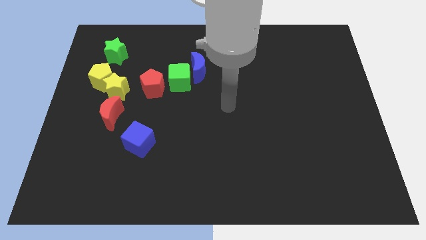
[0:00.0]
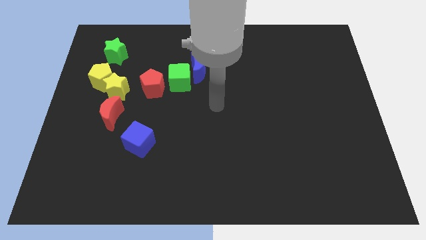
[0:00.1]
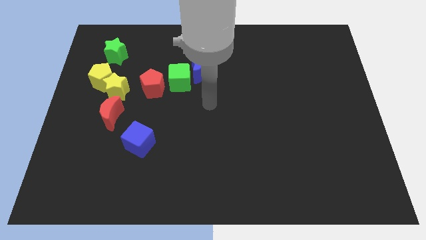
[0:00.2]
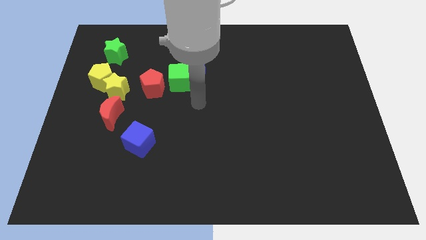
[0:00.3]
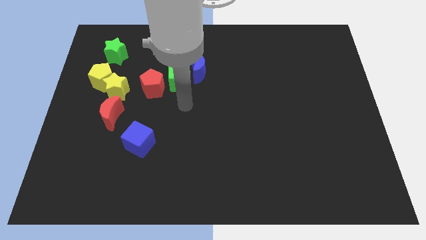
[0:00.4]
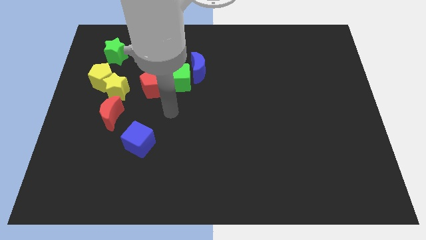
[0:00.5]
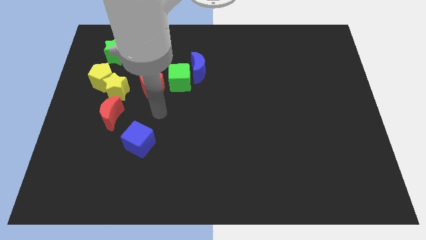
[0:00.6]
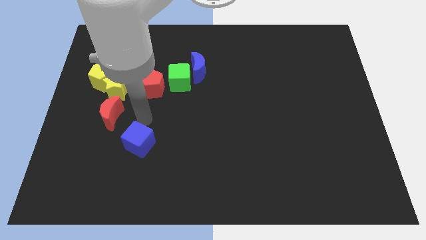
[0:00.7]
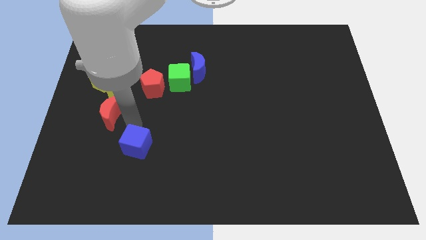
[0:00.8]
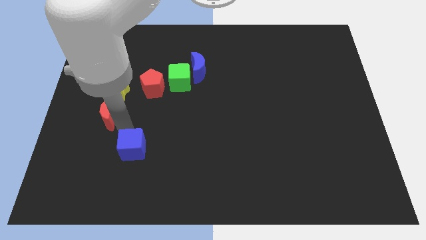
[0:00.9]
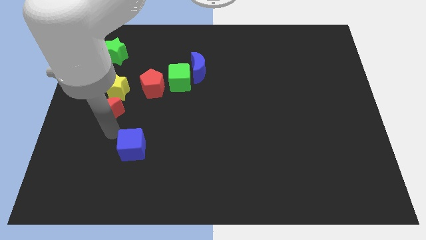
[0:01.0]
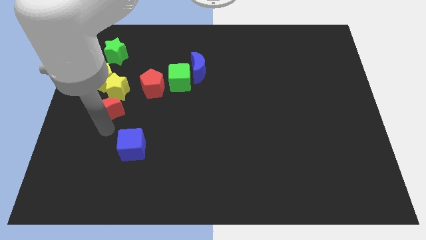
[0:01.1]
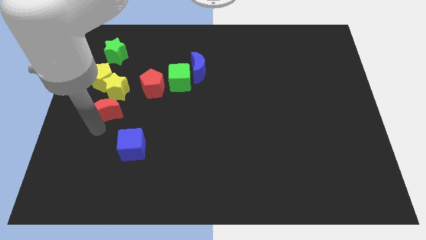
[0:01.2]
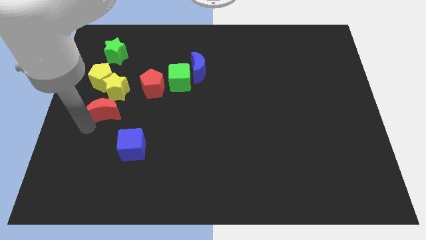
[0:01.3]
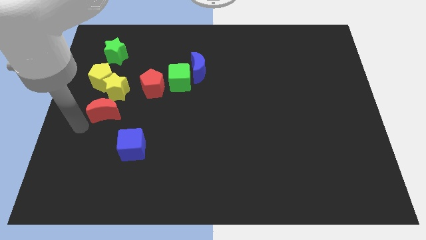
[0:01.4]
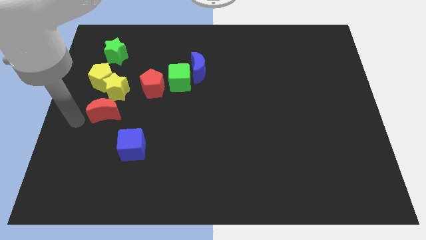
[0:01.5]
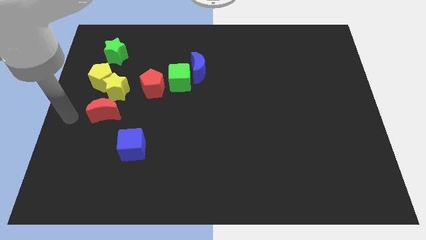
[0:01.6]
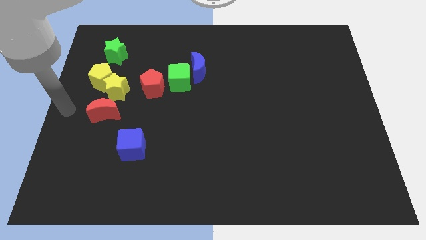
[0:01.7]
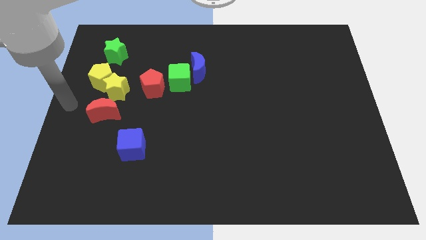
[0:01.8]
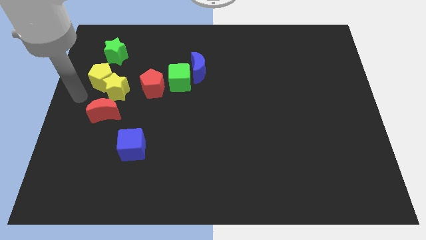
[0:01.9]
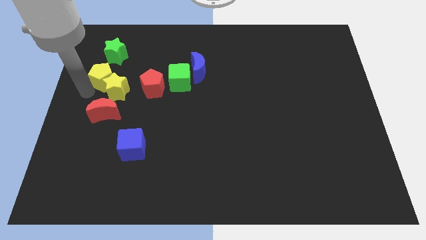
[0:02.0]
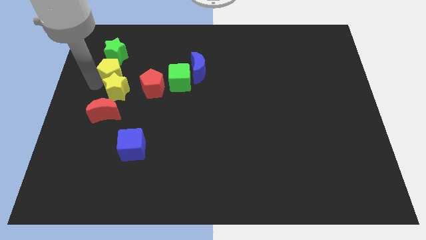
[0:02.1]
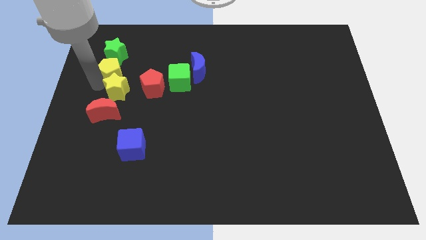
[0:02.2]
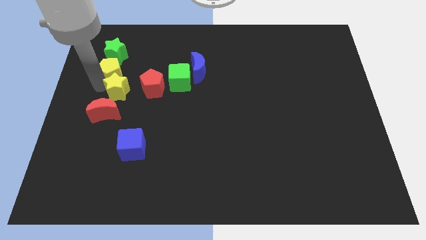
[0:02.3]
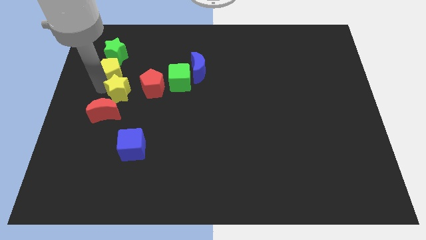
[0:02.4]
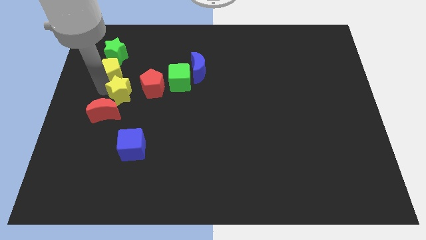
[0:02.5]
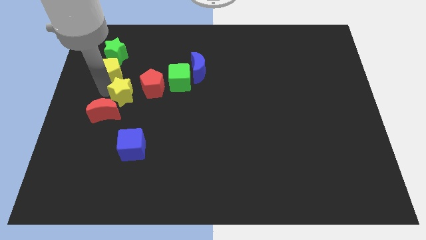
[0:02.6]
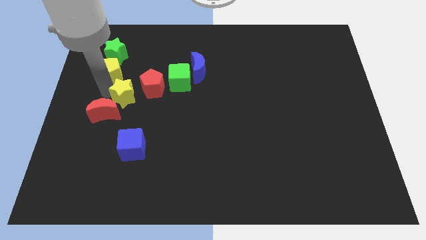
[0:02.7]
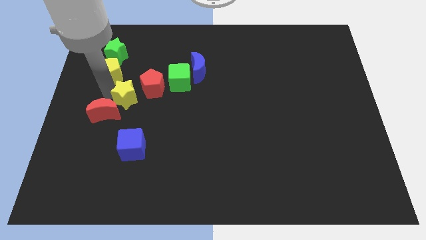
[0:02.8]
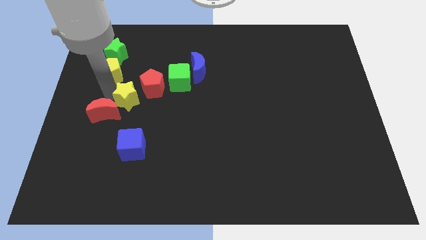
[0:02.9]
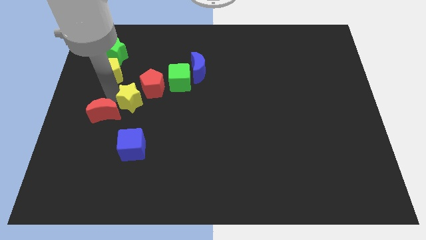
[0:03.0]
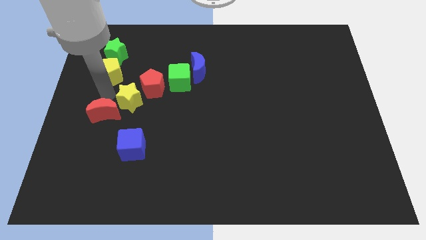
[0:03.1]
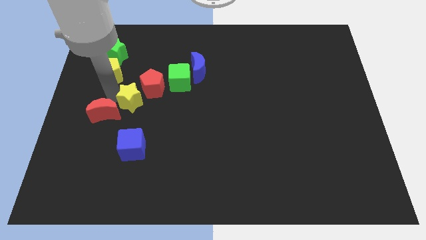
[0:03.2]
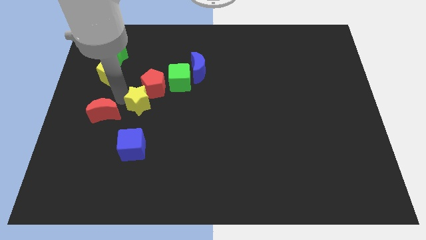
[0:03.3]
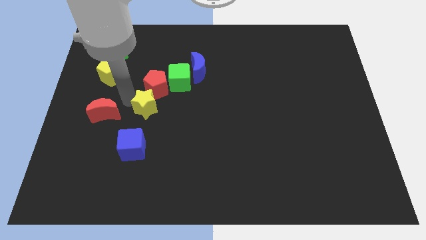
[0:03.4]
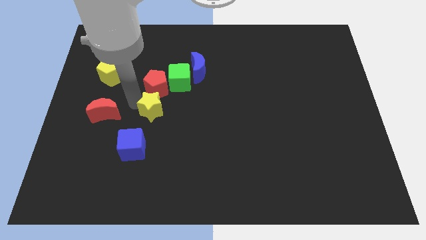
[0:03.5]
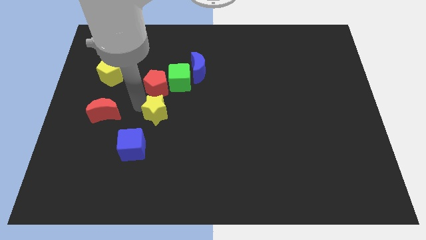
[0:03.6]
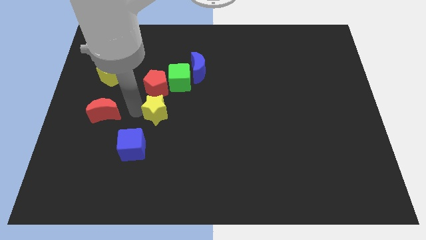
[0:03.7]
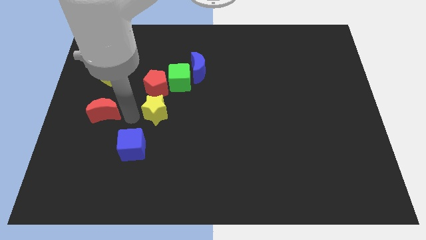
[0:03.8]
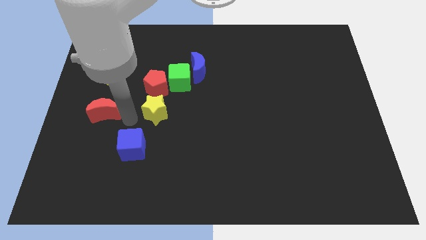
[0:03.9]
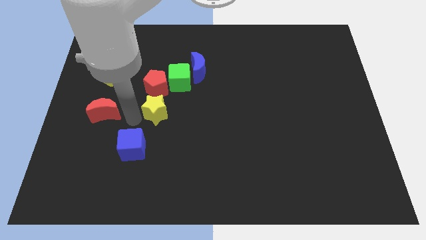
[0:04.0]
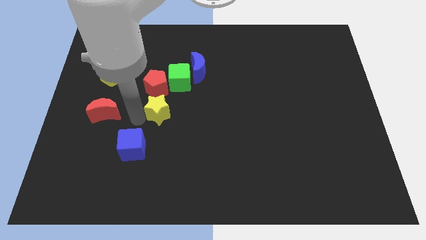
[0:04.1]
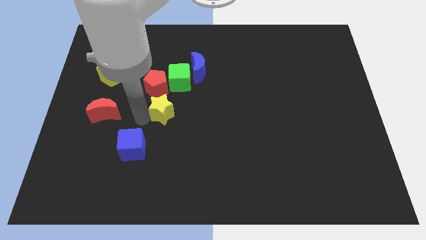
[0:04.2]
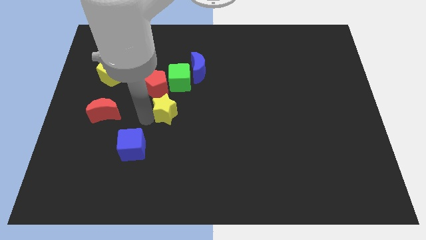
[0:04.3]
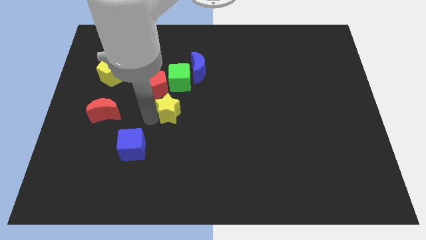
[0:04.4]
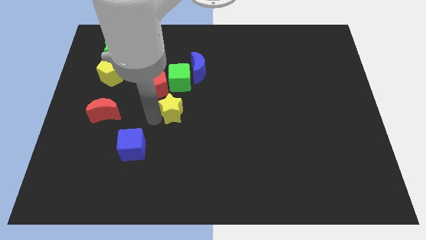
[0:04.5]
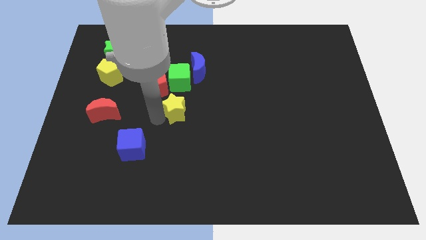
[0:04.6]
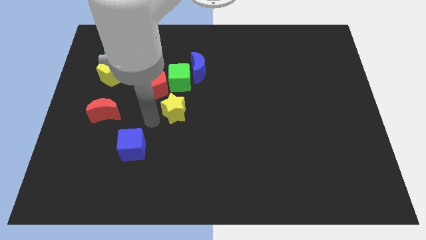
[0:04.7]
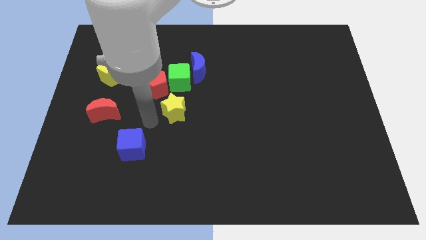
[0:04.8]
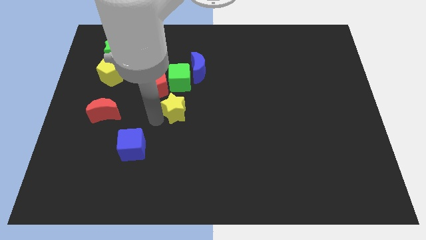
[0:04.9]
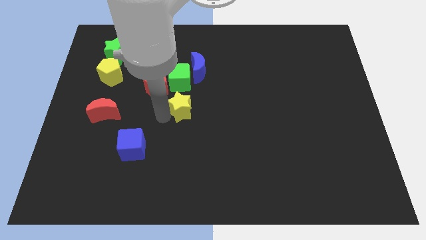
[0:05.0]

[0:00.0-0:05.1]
put the yellow star below the blue moon

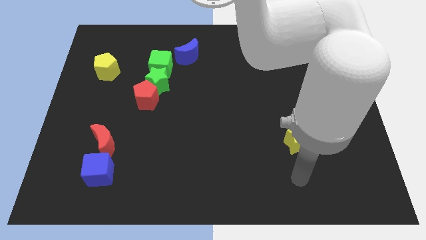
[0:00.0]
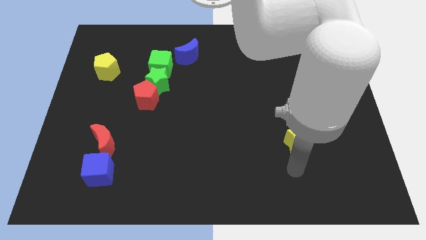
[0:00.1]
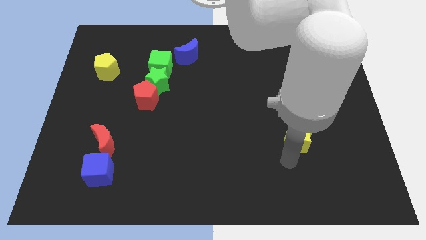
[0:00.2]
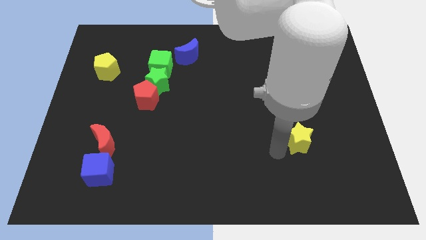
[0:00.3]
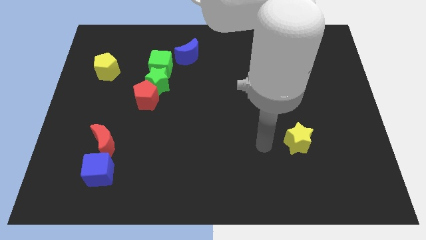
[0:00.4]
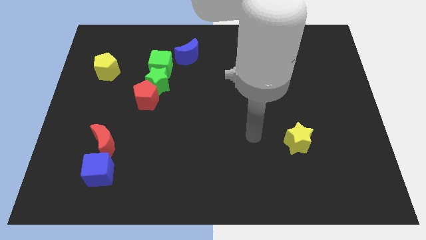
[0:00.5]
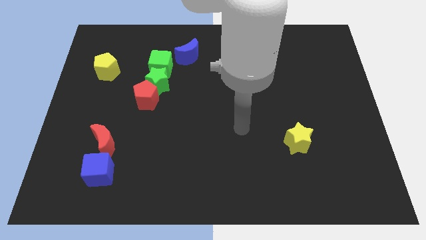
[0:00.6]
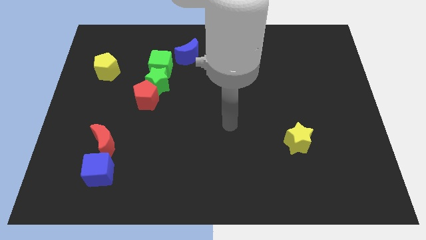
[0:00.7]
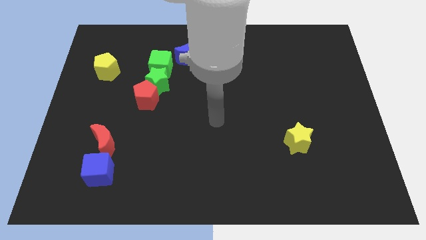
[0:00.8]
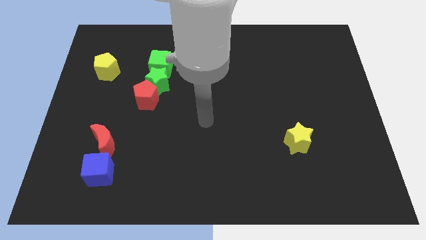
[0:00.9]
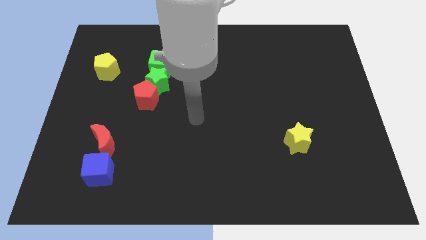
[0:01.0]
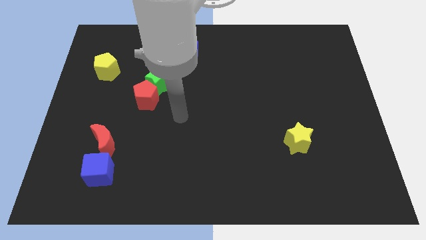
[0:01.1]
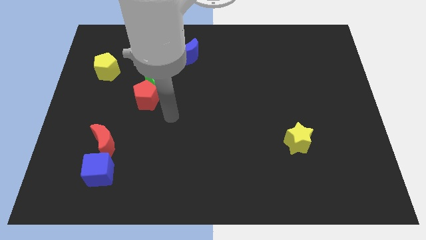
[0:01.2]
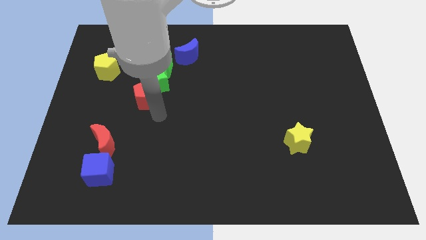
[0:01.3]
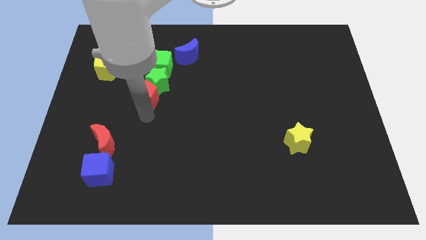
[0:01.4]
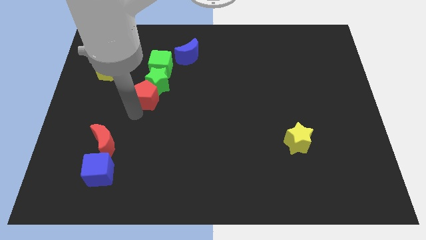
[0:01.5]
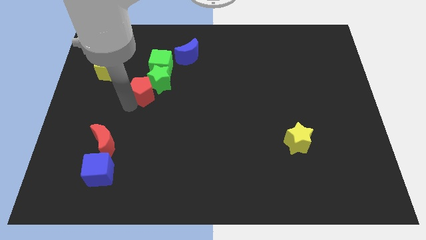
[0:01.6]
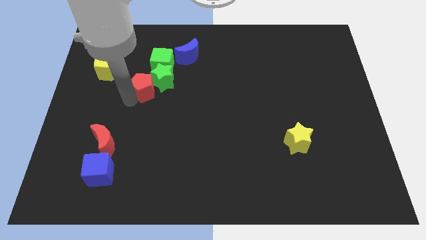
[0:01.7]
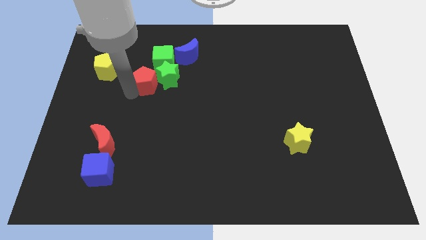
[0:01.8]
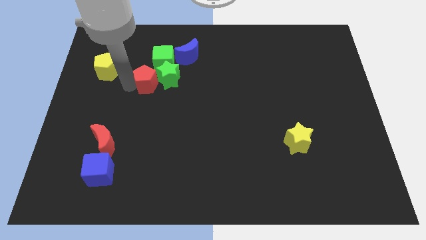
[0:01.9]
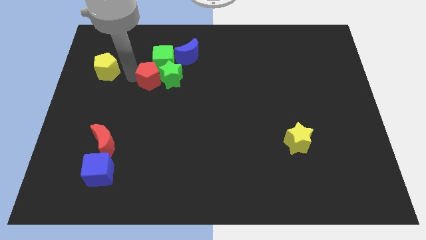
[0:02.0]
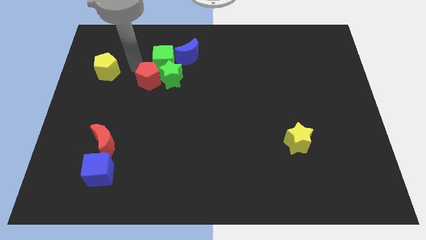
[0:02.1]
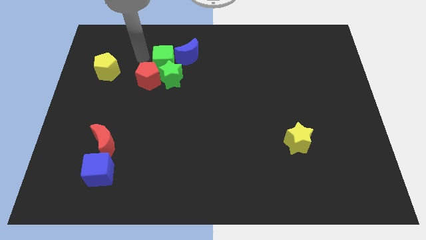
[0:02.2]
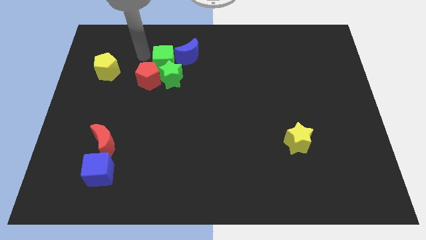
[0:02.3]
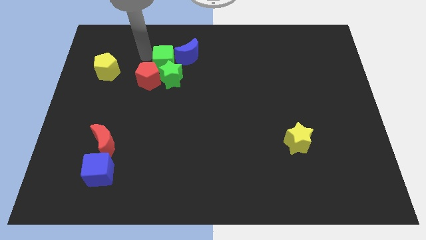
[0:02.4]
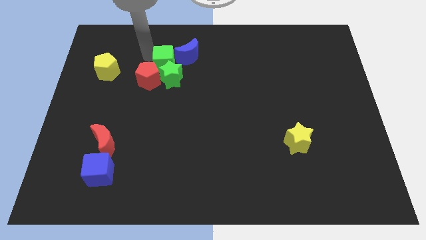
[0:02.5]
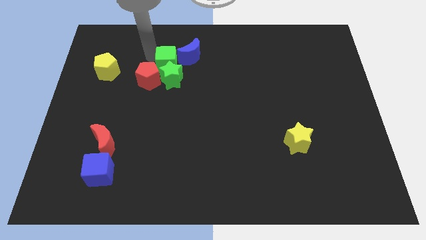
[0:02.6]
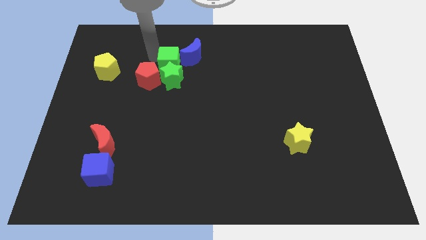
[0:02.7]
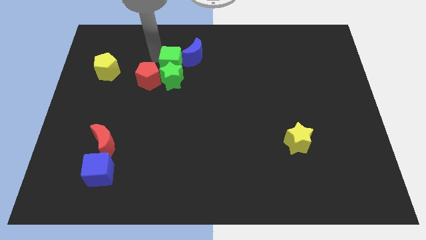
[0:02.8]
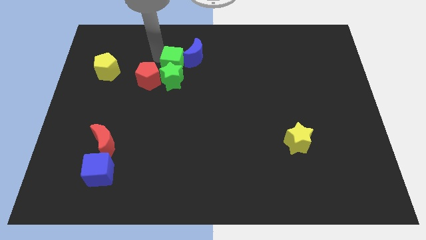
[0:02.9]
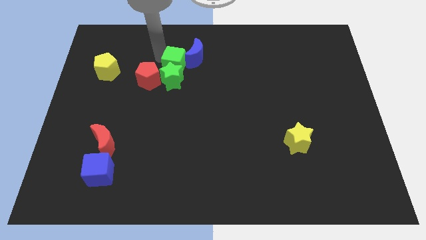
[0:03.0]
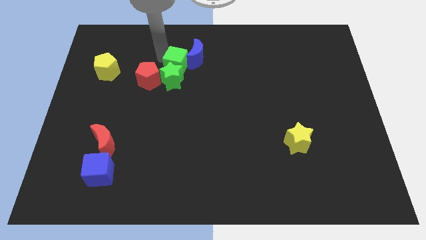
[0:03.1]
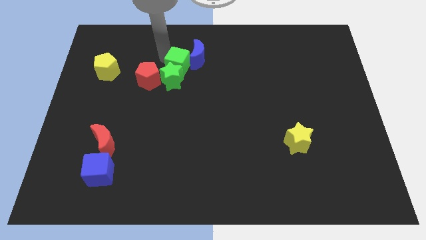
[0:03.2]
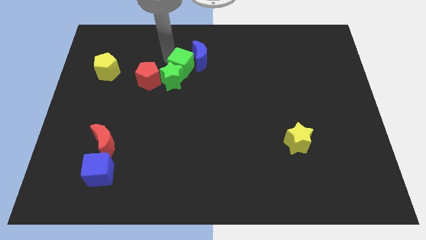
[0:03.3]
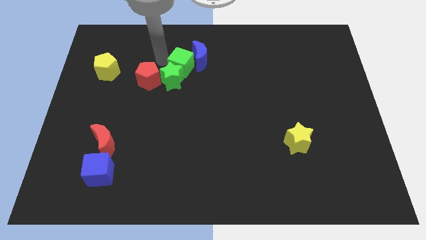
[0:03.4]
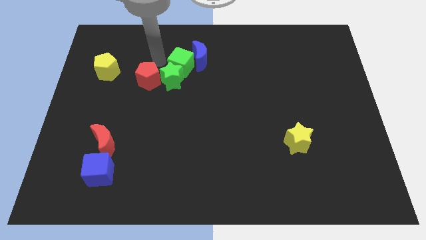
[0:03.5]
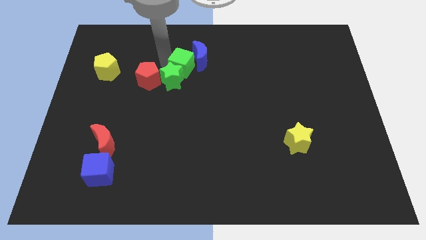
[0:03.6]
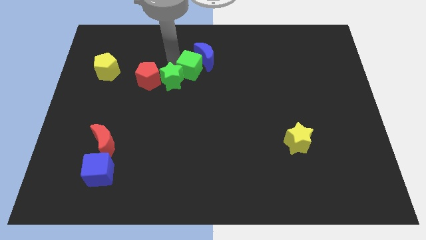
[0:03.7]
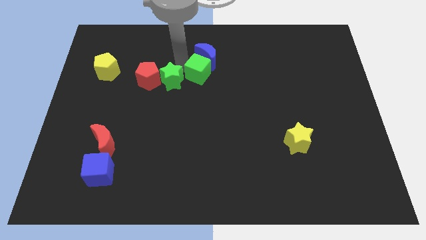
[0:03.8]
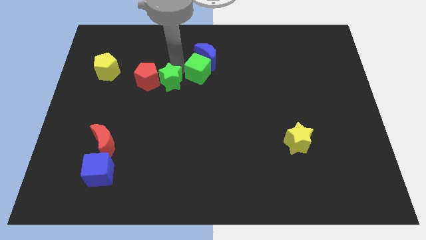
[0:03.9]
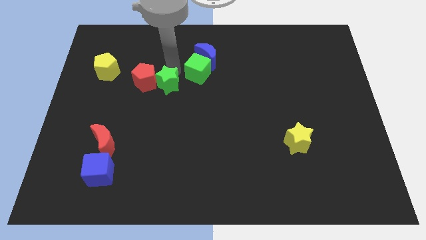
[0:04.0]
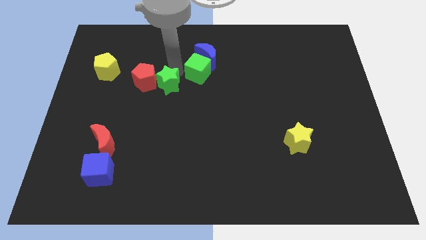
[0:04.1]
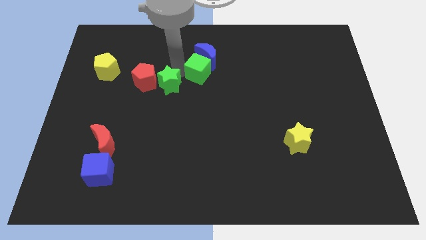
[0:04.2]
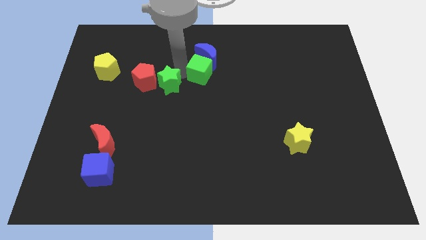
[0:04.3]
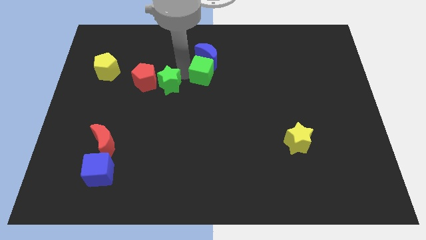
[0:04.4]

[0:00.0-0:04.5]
move the green cube diagonally down and to the right of the blue moon
